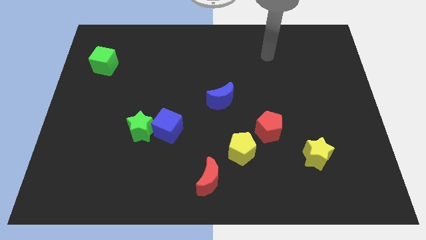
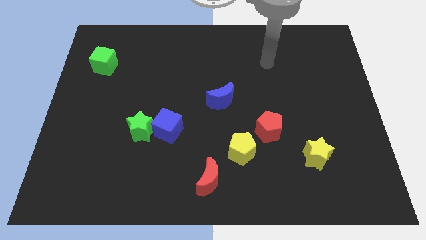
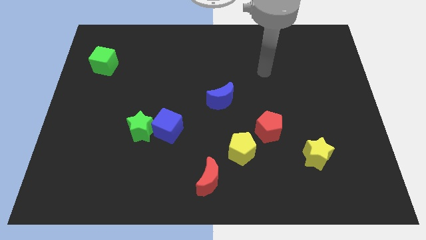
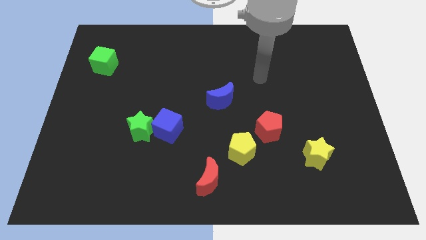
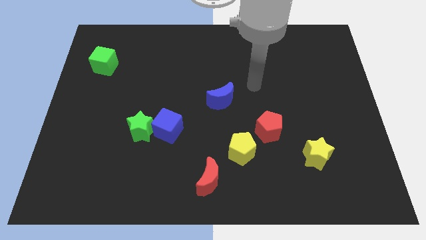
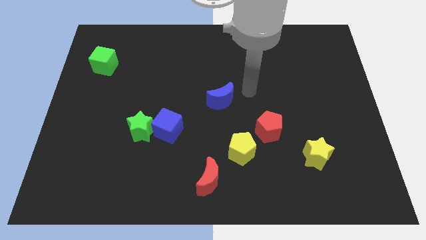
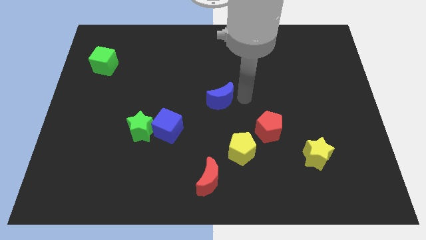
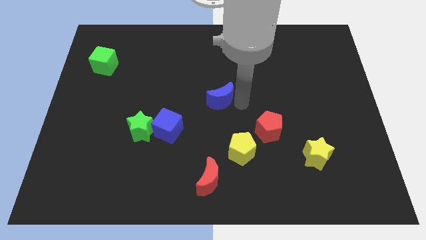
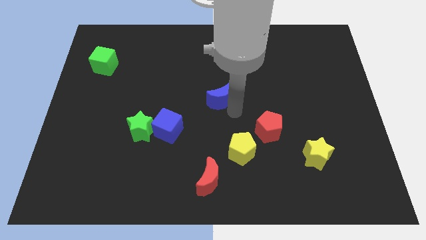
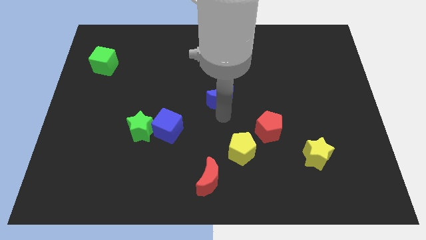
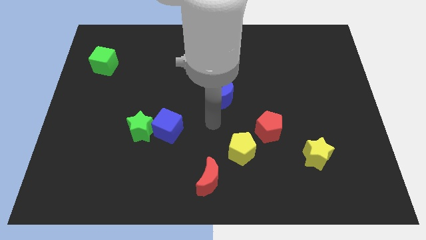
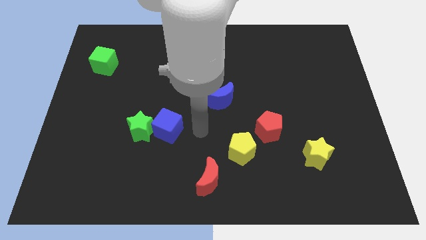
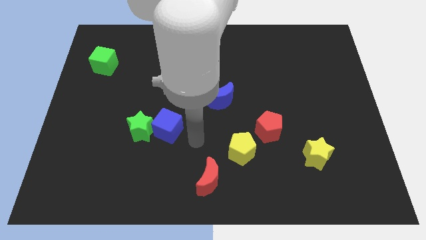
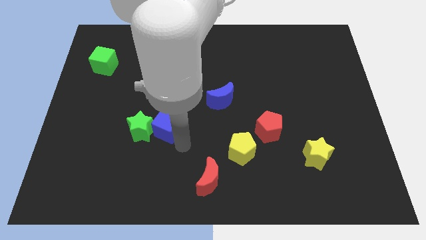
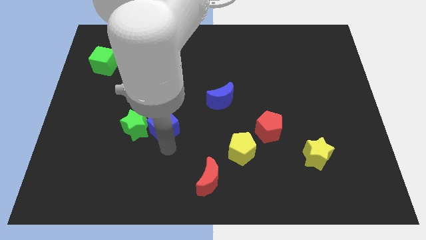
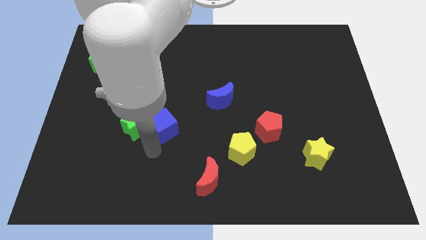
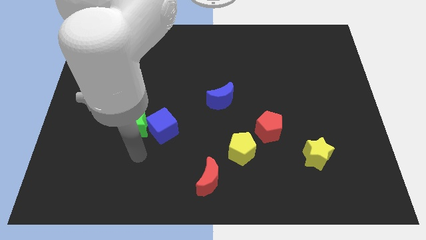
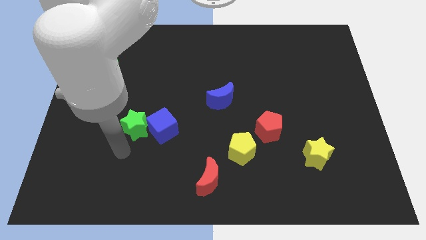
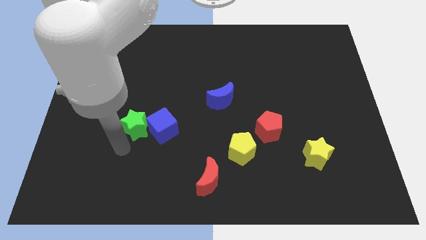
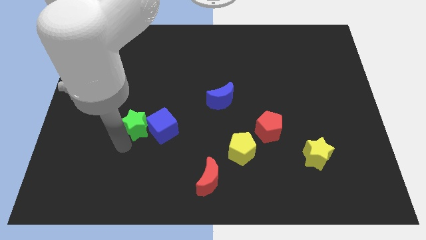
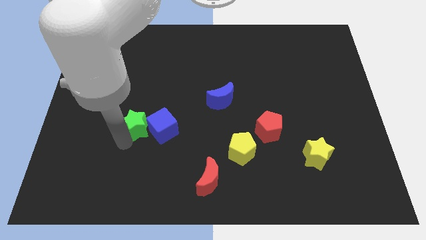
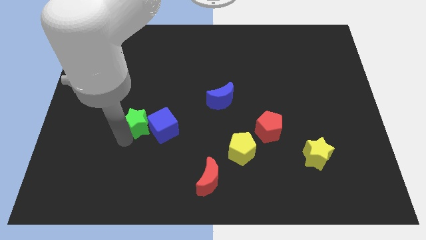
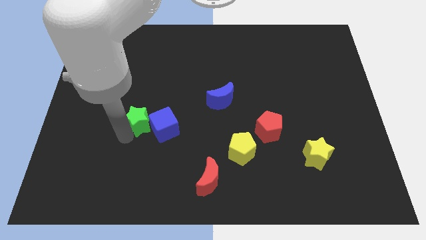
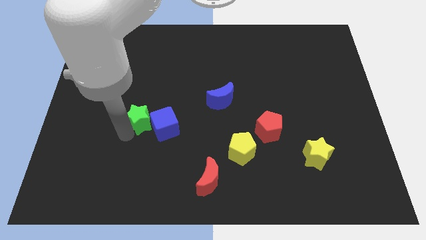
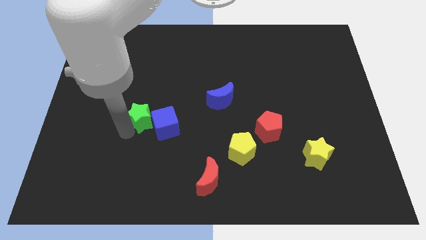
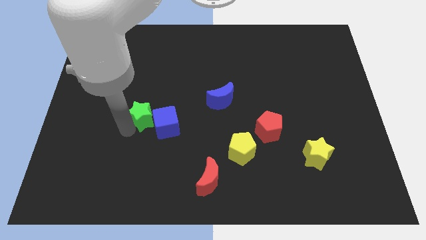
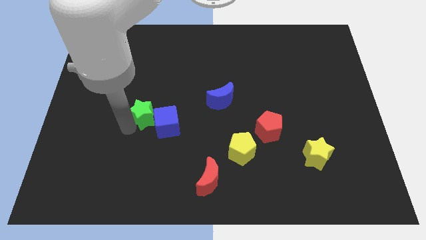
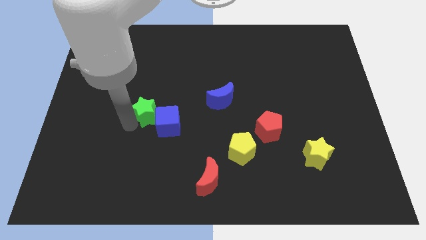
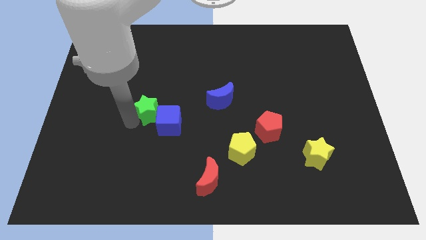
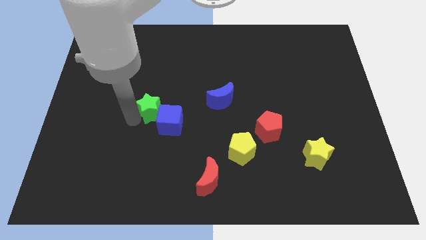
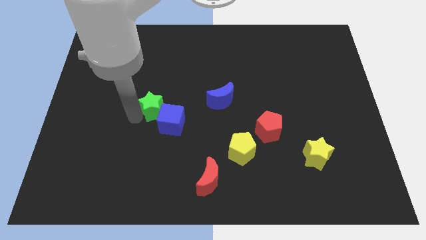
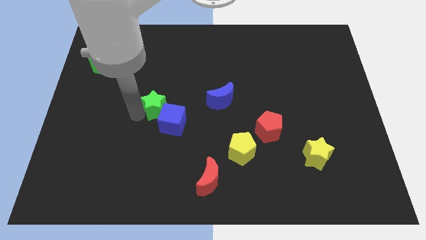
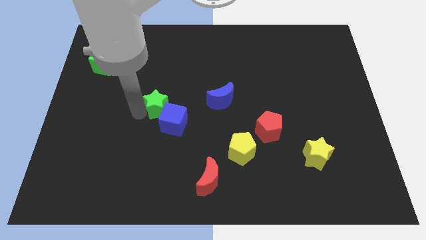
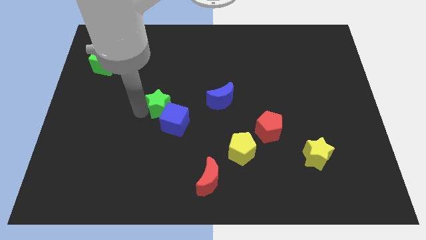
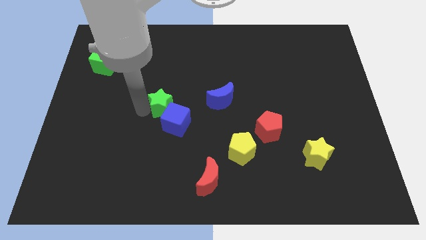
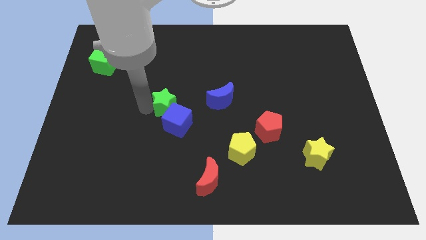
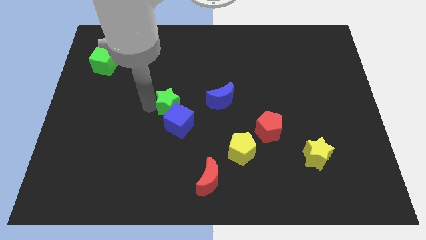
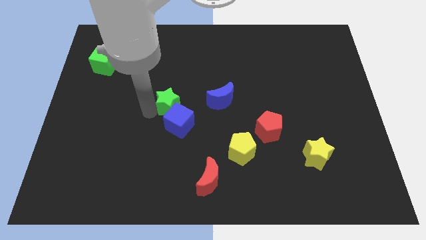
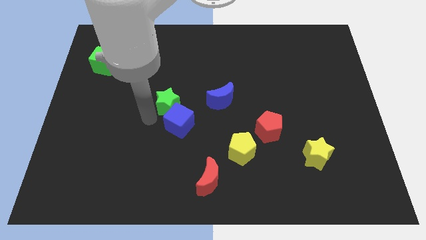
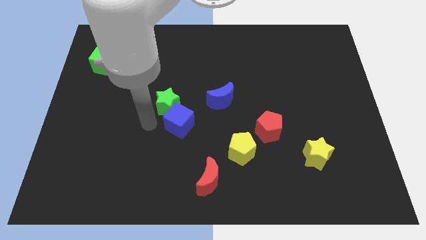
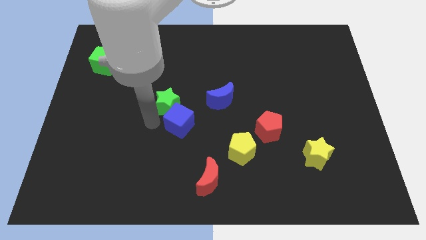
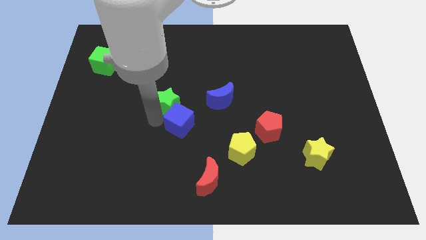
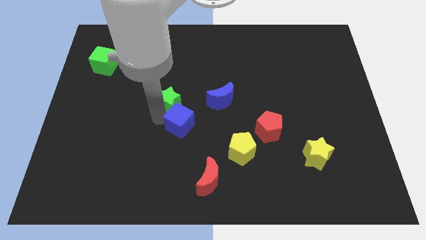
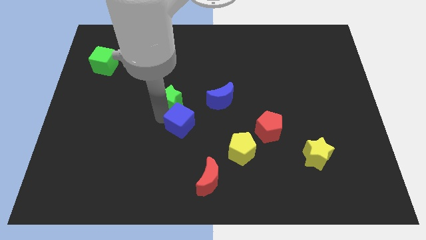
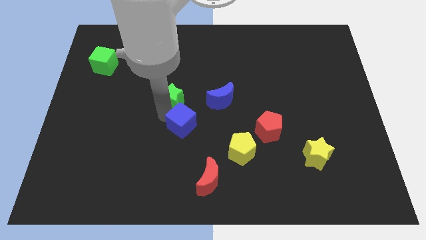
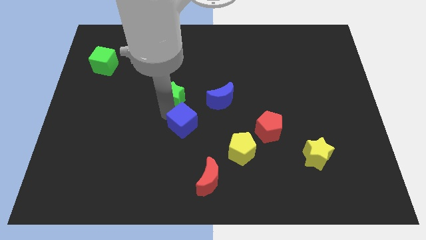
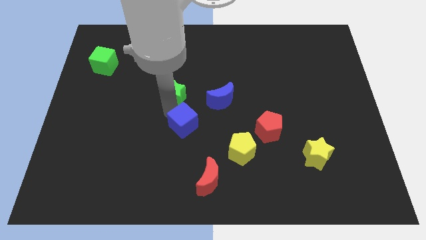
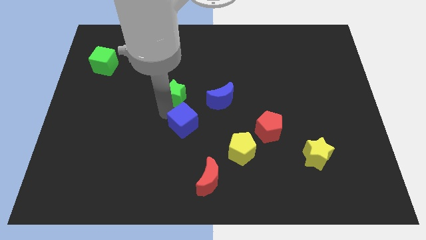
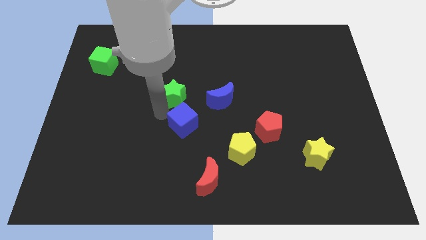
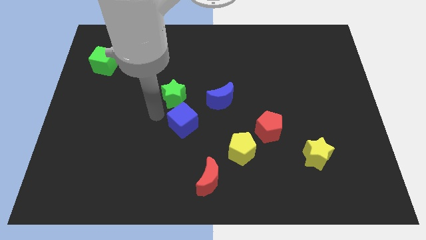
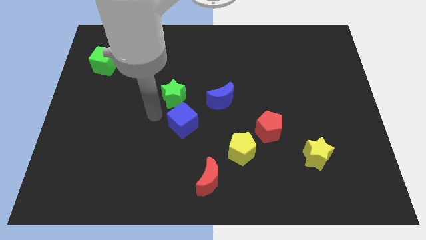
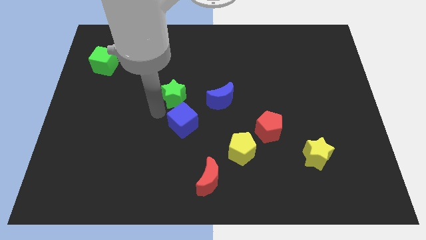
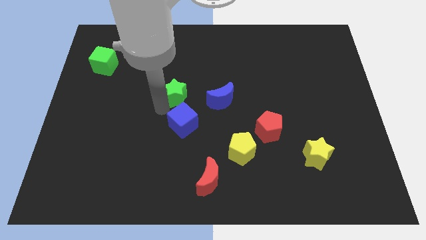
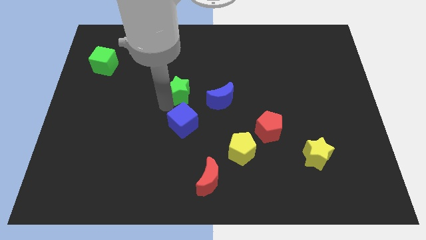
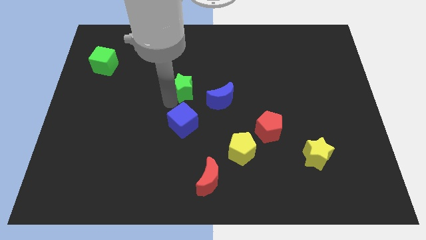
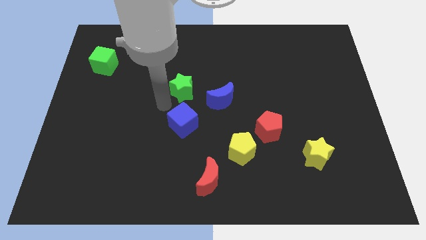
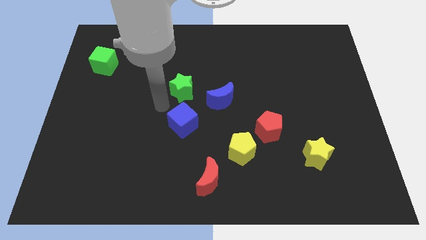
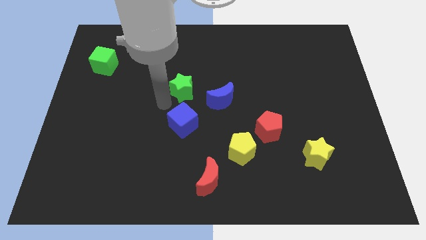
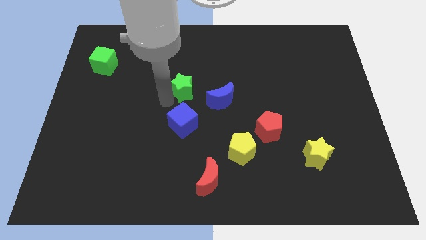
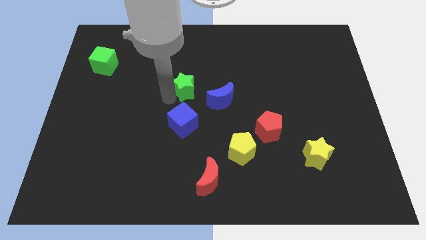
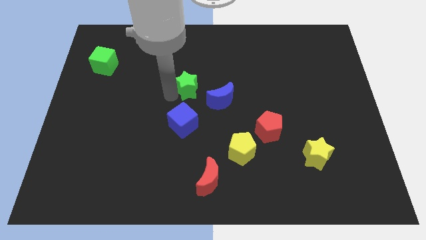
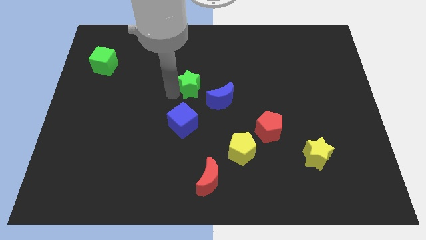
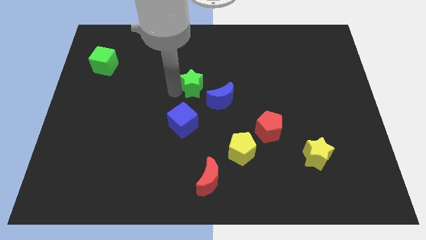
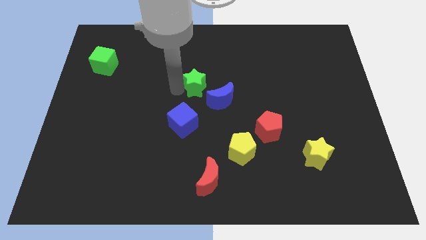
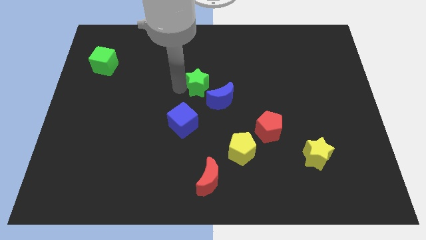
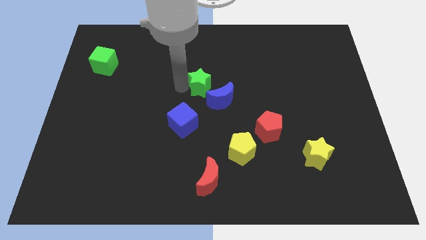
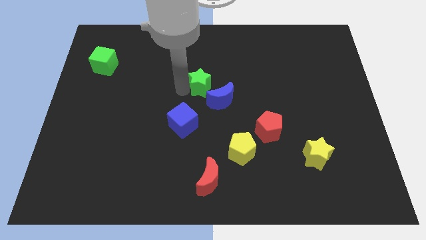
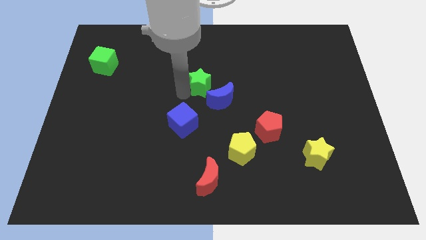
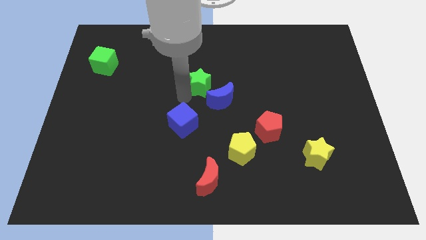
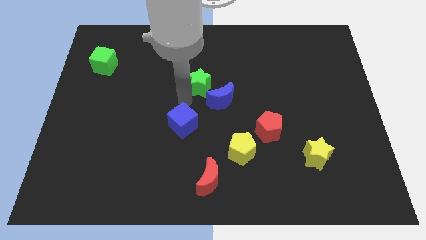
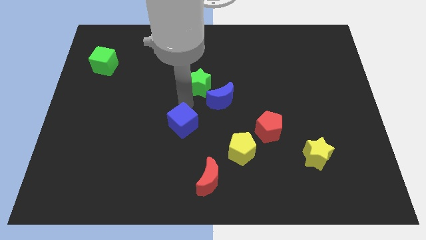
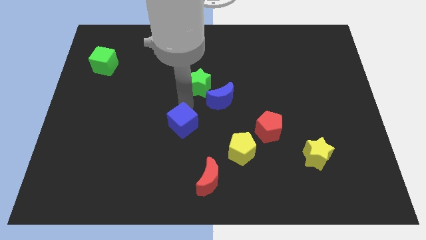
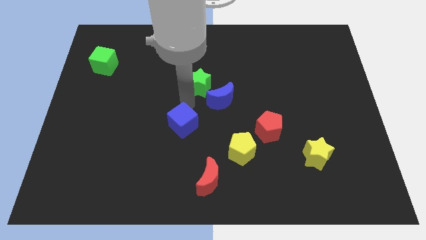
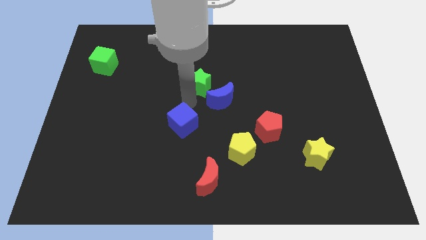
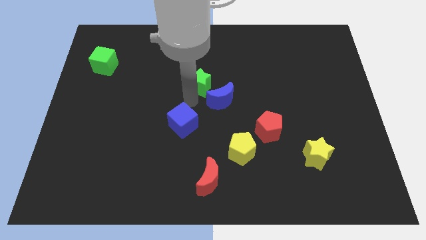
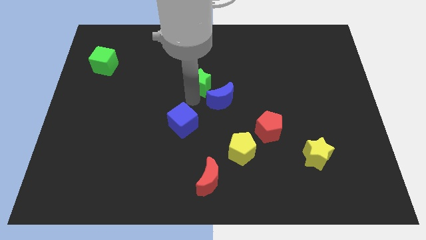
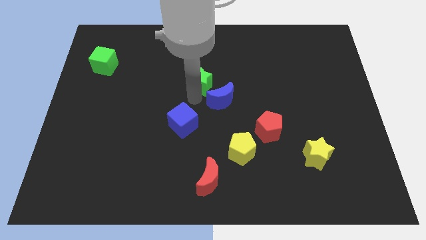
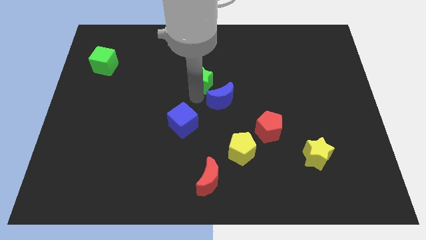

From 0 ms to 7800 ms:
move the green star to the top of the blue moon
